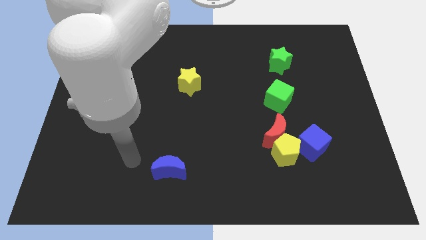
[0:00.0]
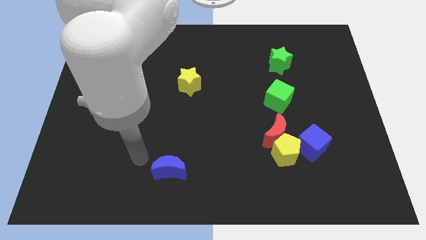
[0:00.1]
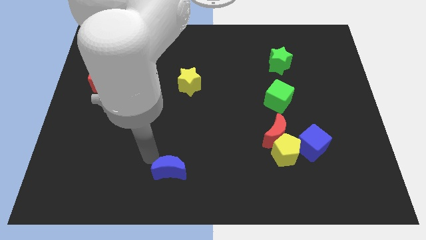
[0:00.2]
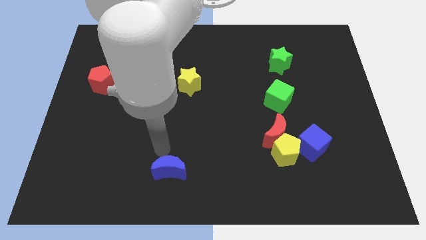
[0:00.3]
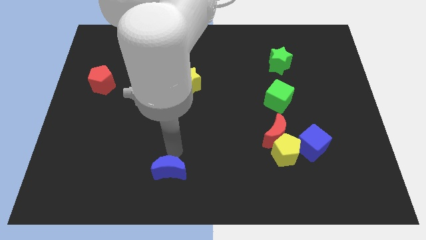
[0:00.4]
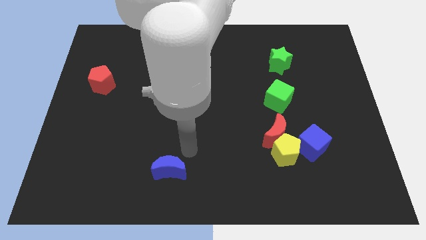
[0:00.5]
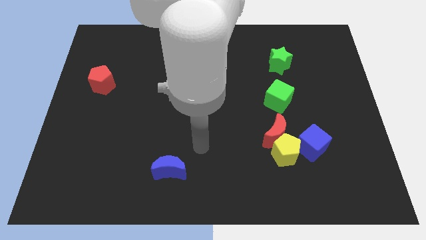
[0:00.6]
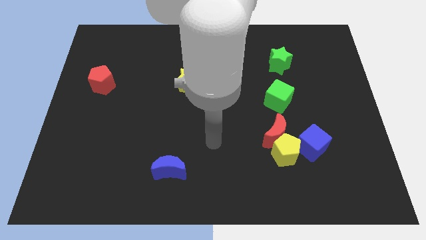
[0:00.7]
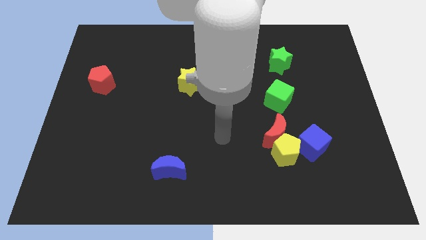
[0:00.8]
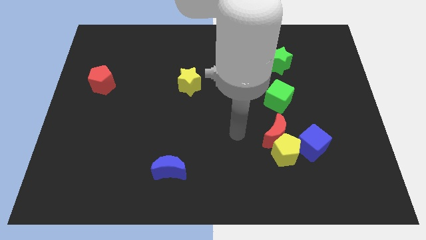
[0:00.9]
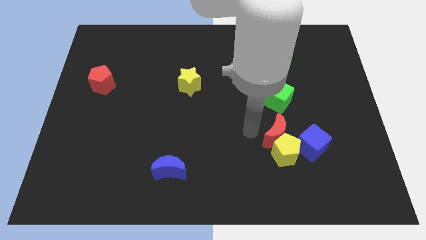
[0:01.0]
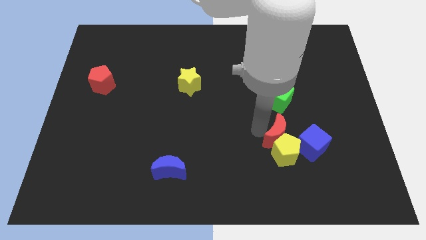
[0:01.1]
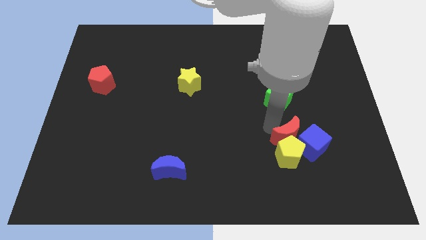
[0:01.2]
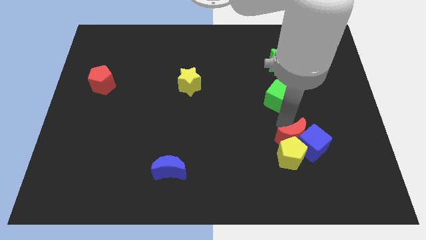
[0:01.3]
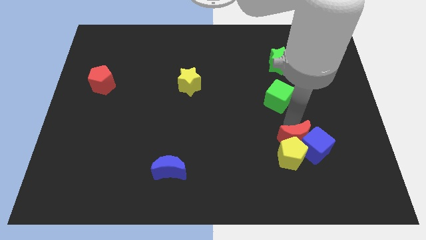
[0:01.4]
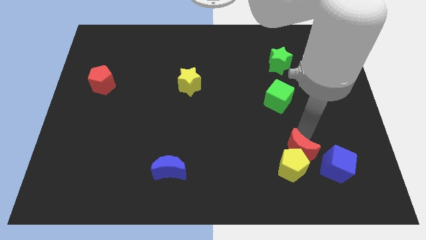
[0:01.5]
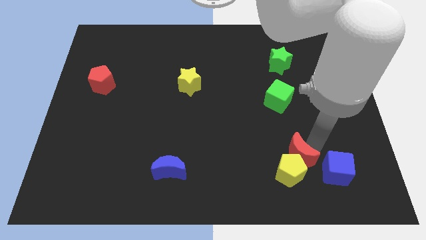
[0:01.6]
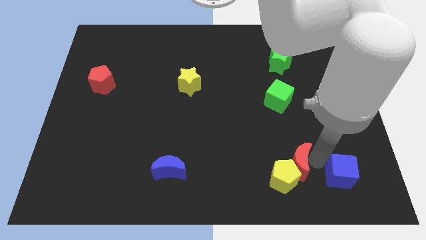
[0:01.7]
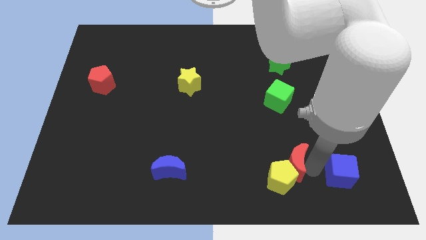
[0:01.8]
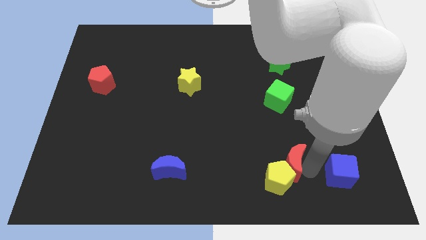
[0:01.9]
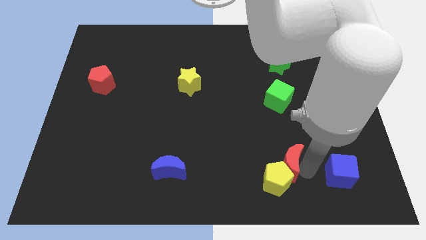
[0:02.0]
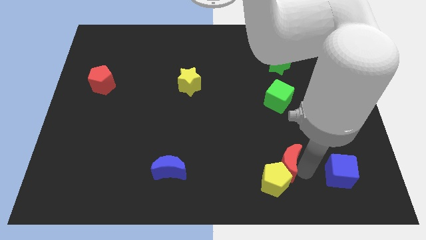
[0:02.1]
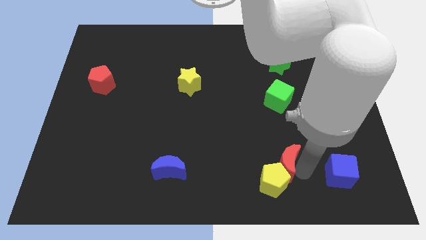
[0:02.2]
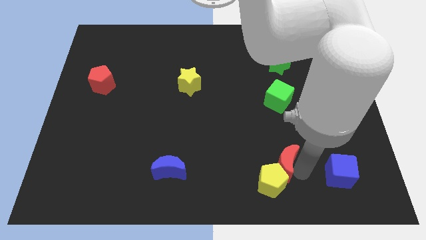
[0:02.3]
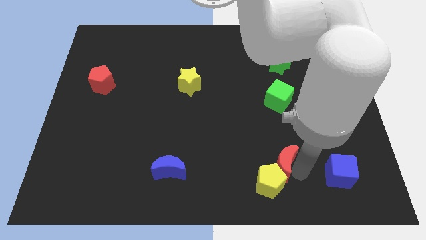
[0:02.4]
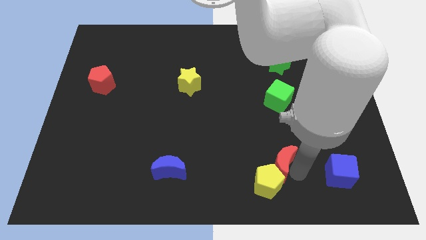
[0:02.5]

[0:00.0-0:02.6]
move the yellow pentagon away from the red moon and blue cube

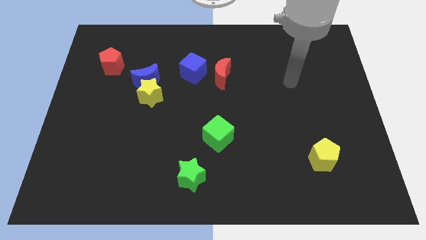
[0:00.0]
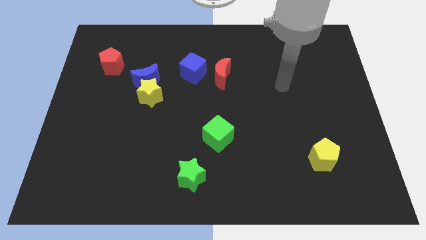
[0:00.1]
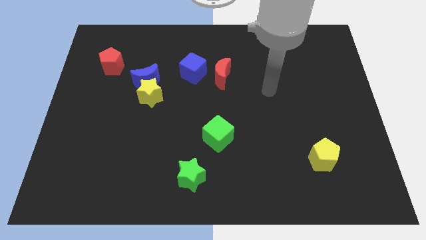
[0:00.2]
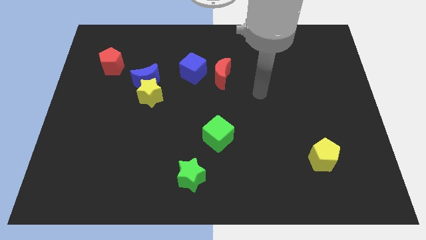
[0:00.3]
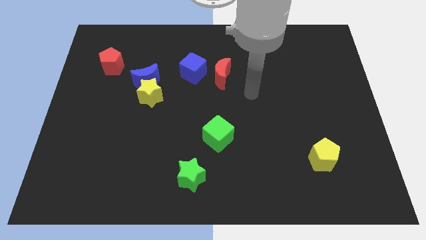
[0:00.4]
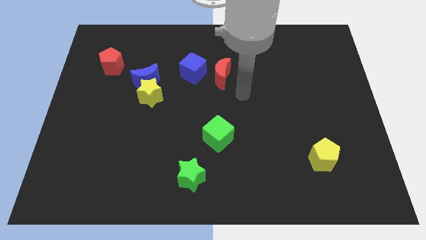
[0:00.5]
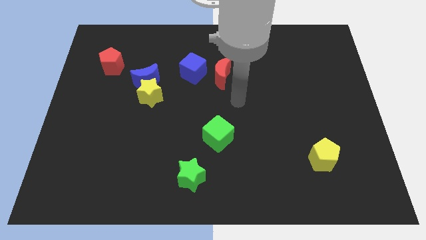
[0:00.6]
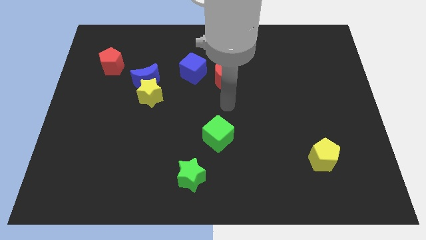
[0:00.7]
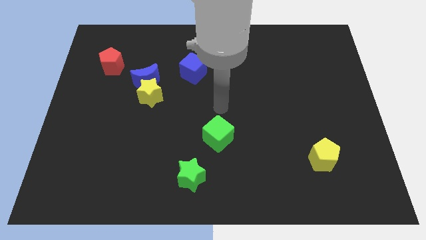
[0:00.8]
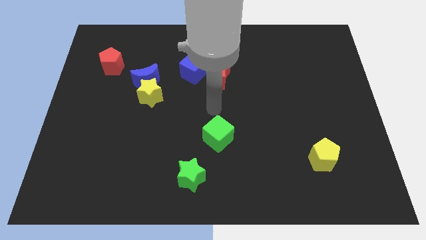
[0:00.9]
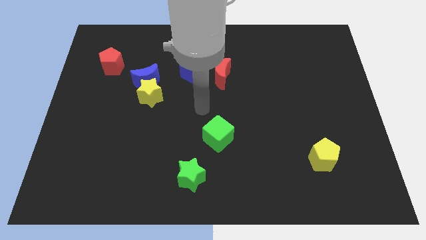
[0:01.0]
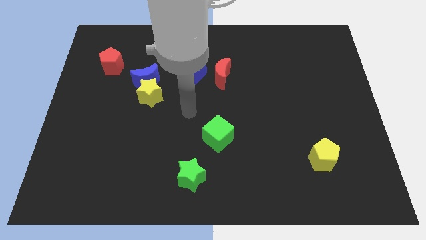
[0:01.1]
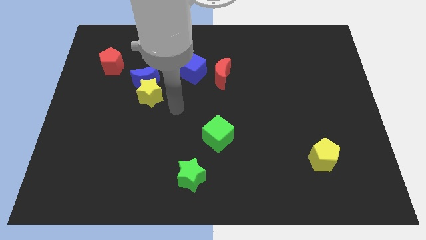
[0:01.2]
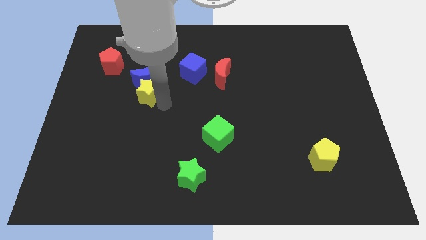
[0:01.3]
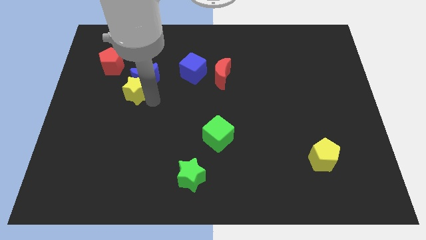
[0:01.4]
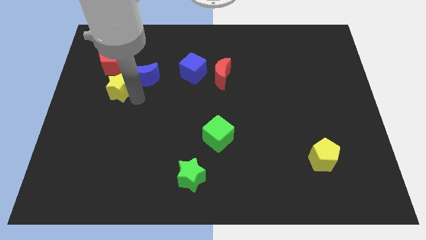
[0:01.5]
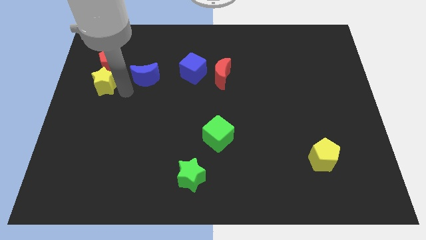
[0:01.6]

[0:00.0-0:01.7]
separate the blue moon from the yellow star

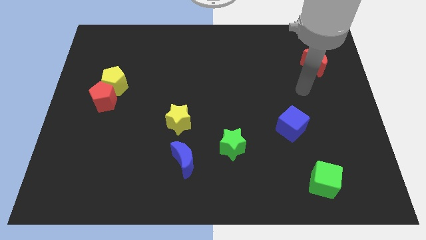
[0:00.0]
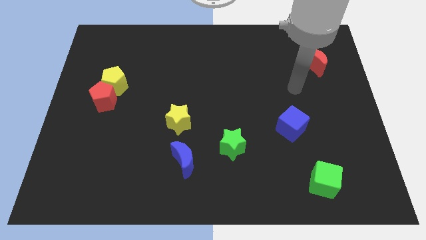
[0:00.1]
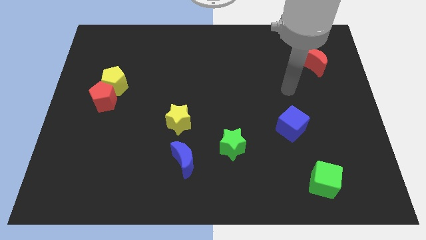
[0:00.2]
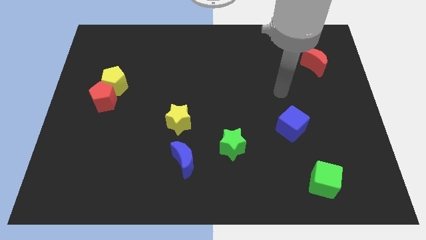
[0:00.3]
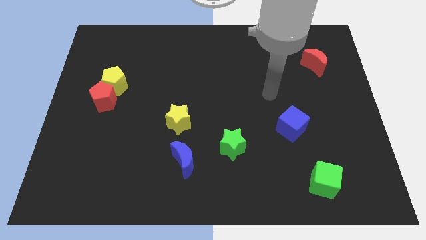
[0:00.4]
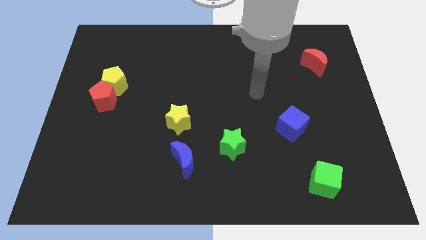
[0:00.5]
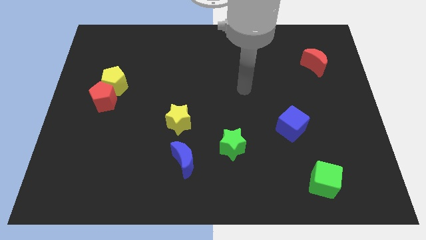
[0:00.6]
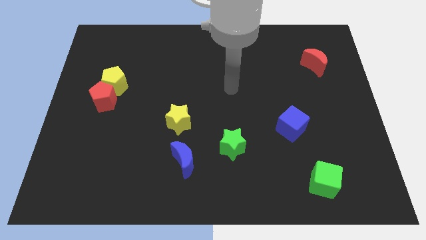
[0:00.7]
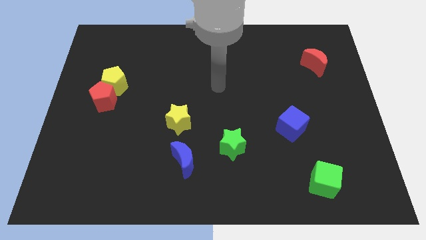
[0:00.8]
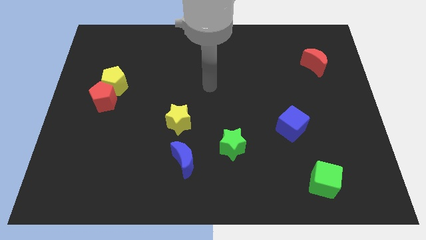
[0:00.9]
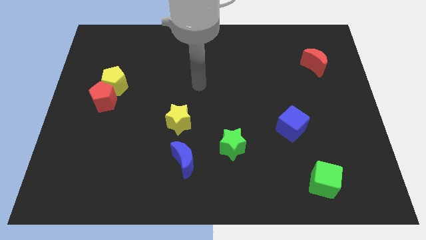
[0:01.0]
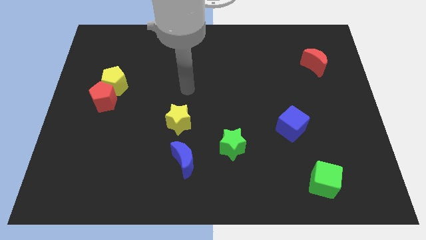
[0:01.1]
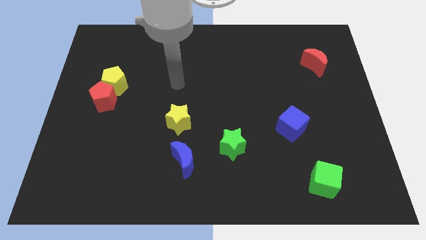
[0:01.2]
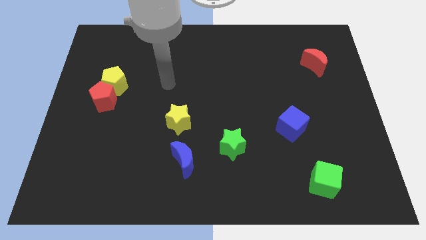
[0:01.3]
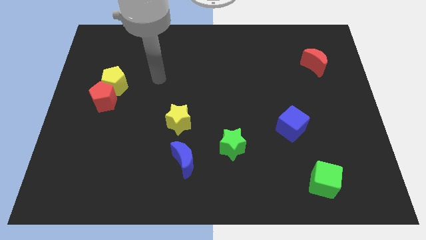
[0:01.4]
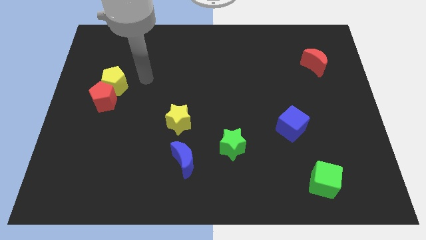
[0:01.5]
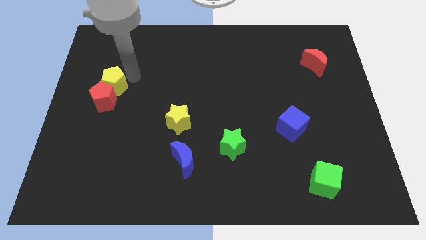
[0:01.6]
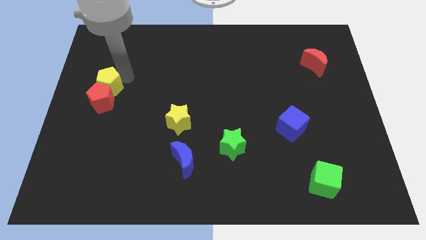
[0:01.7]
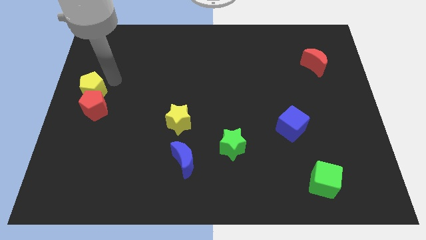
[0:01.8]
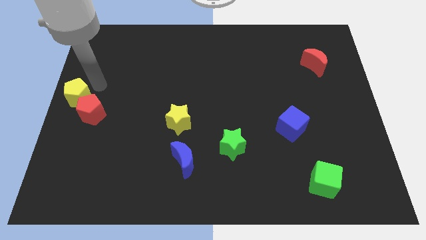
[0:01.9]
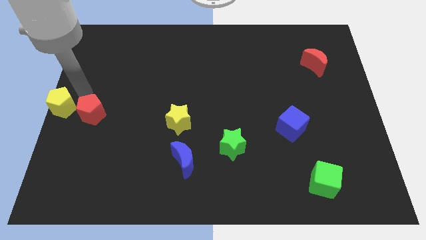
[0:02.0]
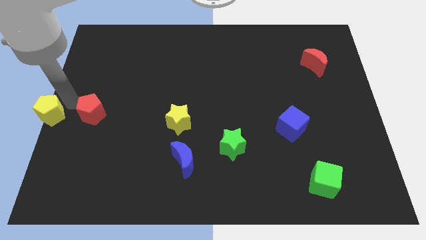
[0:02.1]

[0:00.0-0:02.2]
pull the red pentagon apart from the yellow pentagon

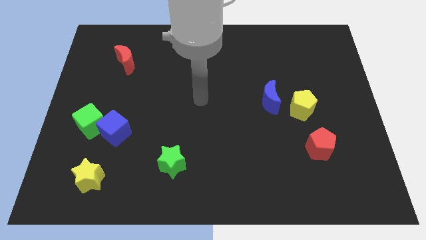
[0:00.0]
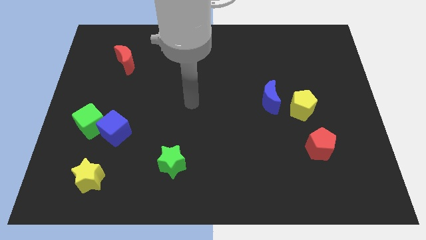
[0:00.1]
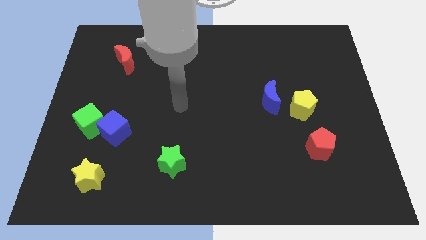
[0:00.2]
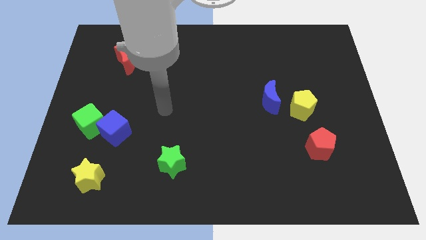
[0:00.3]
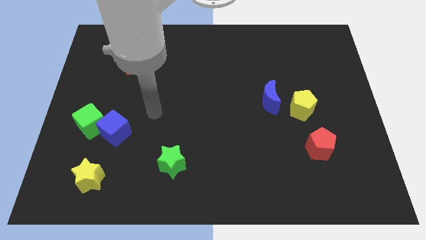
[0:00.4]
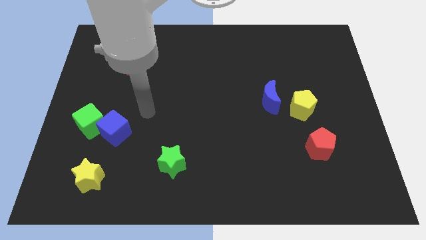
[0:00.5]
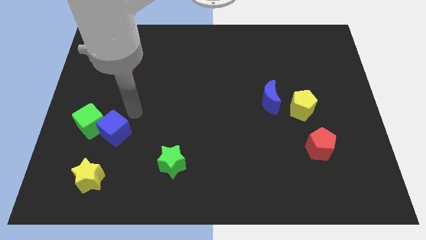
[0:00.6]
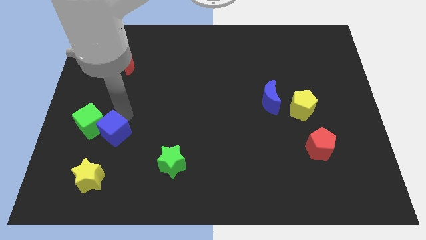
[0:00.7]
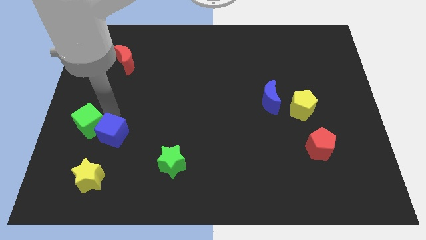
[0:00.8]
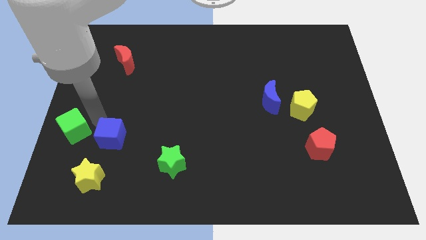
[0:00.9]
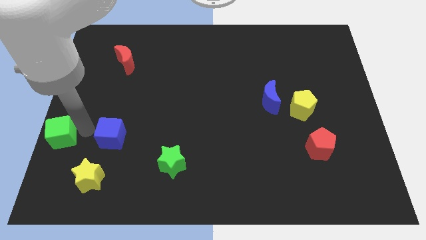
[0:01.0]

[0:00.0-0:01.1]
pull the blue cube apart from the green cube

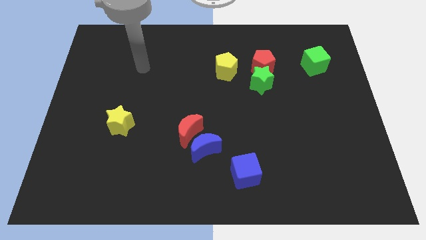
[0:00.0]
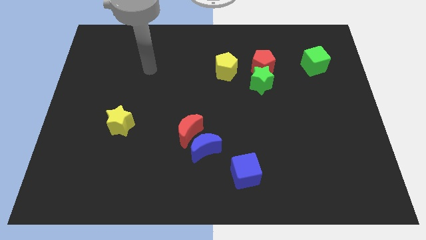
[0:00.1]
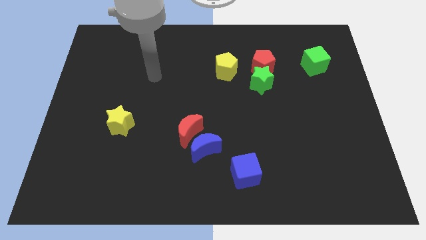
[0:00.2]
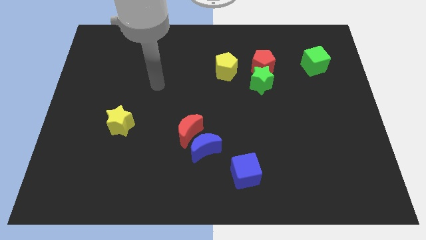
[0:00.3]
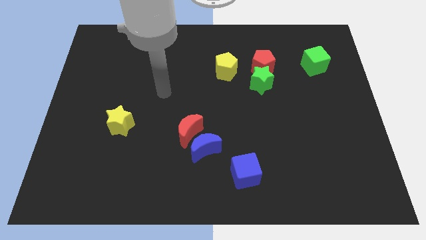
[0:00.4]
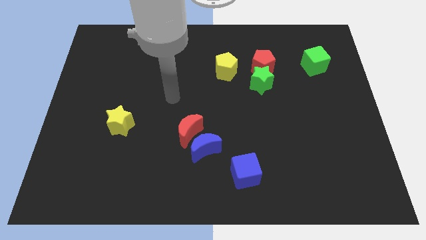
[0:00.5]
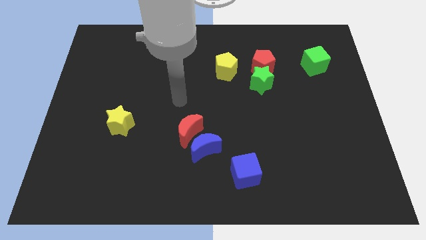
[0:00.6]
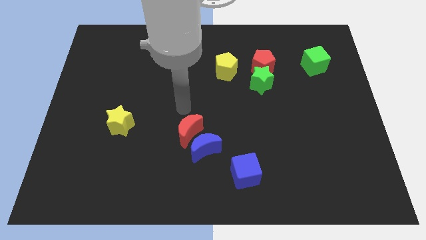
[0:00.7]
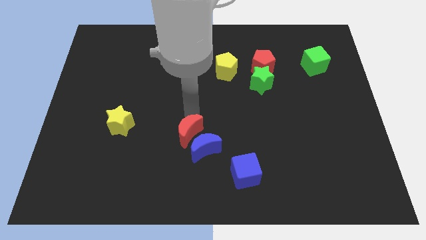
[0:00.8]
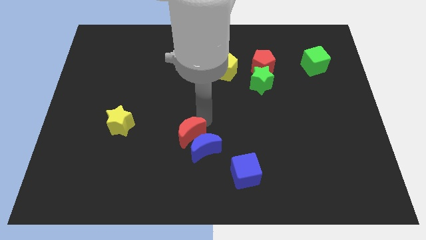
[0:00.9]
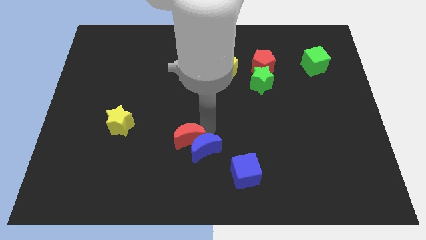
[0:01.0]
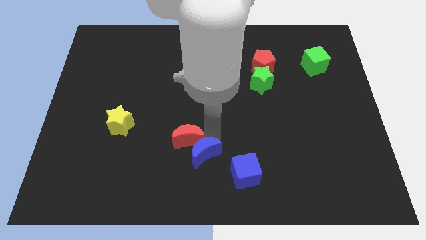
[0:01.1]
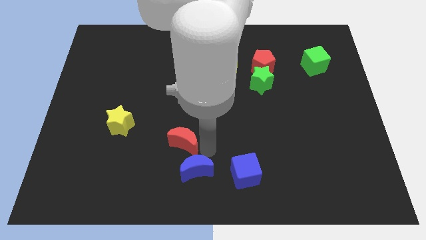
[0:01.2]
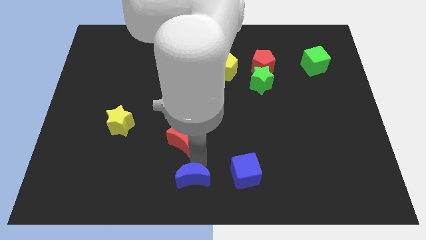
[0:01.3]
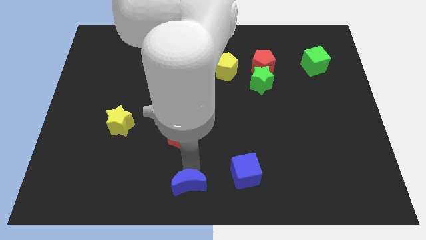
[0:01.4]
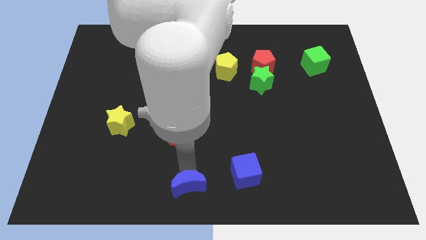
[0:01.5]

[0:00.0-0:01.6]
separate the red moon from the blue moon

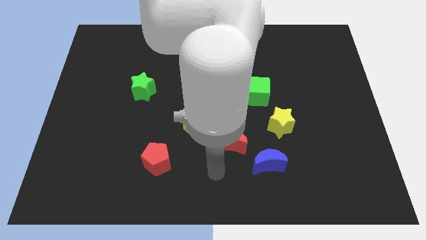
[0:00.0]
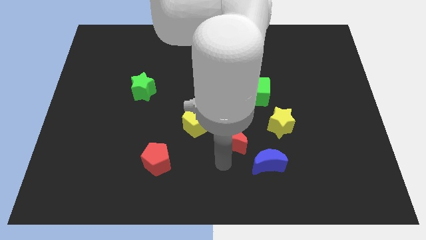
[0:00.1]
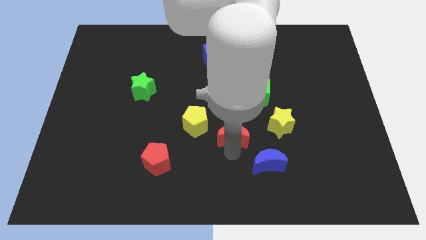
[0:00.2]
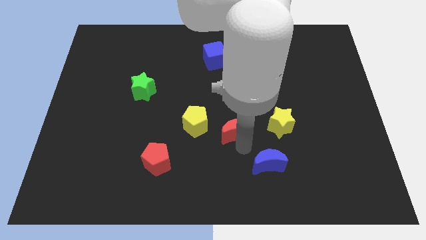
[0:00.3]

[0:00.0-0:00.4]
separate the blue moon from the red moon
